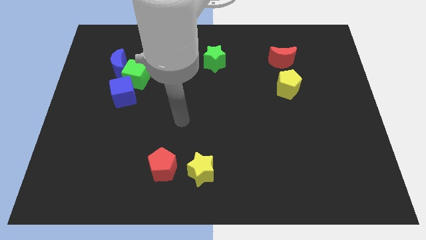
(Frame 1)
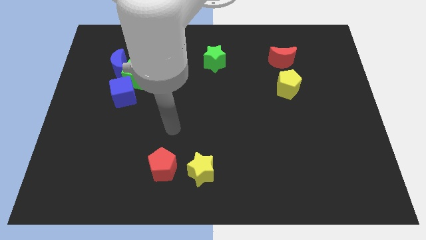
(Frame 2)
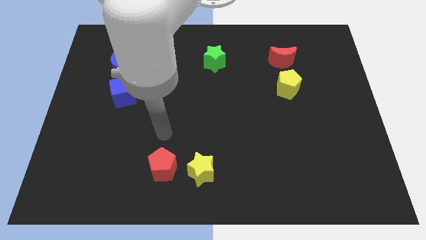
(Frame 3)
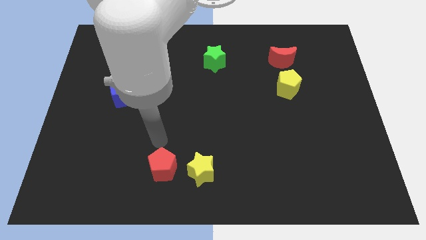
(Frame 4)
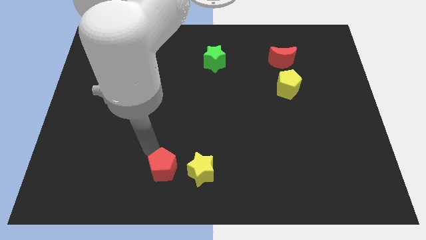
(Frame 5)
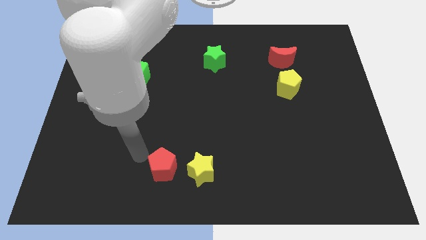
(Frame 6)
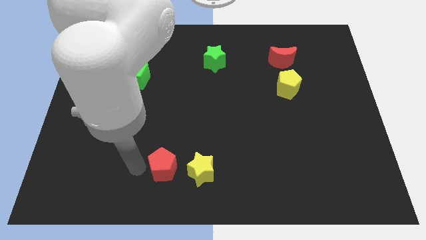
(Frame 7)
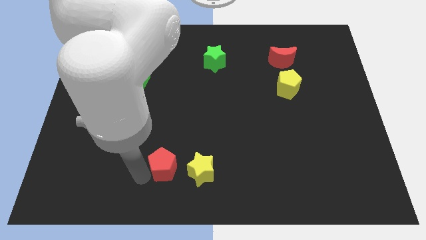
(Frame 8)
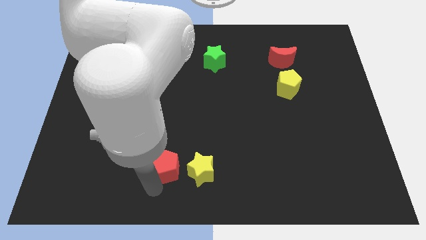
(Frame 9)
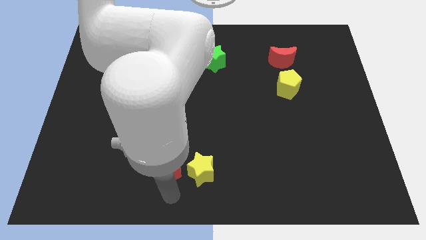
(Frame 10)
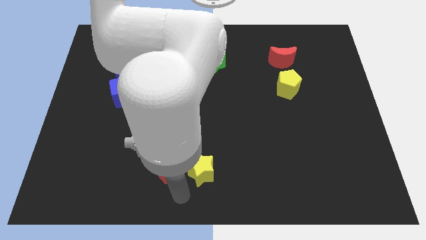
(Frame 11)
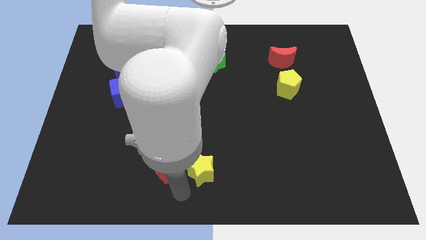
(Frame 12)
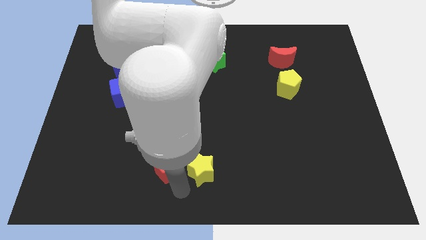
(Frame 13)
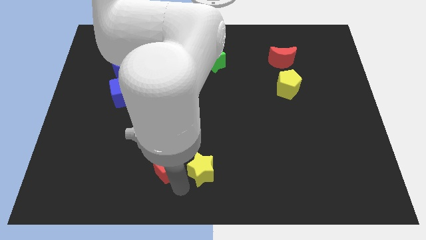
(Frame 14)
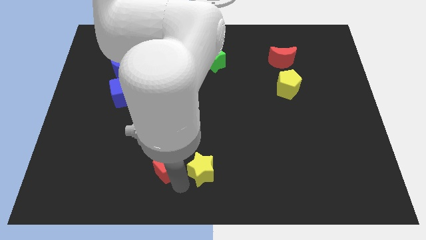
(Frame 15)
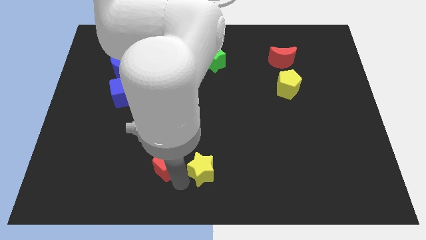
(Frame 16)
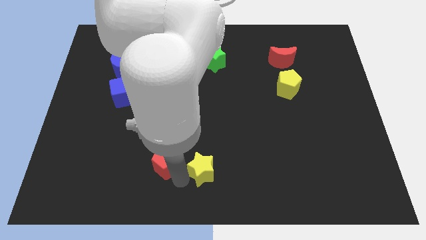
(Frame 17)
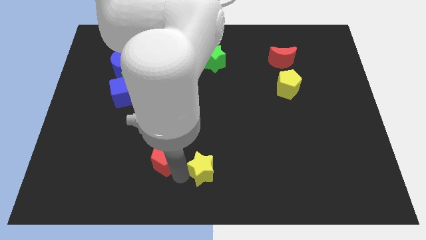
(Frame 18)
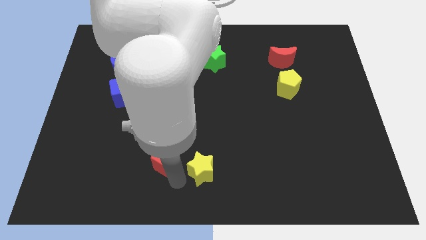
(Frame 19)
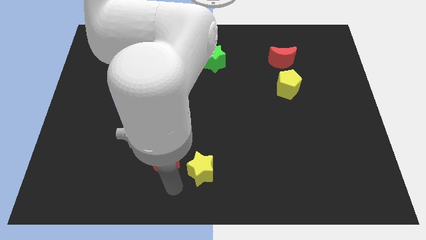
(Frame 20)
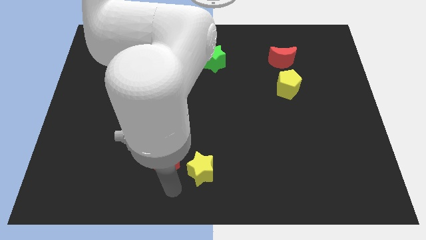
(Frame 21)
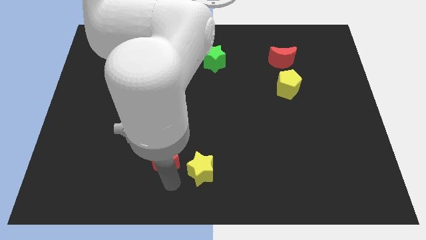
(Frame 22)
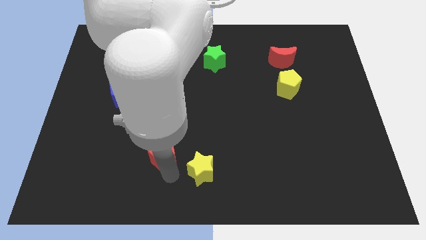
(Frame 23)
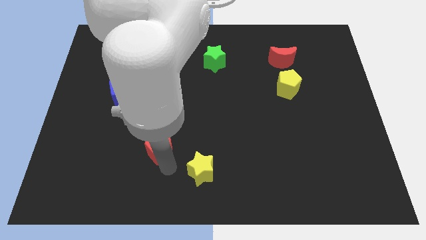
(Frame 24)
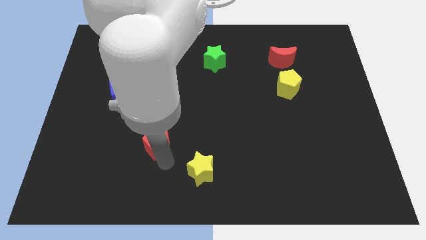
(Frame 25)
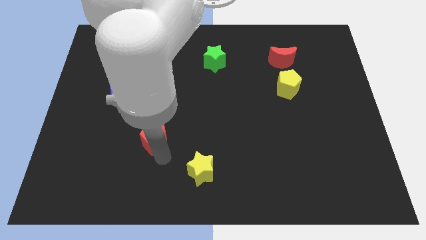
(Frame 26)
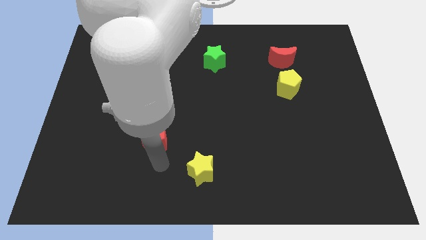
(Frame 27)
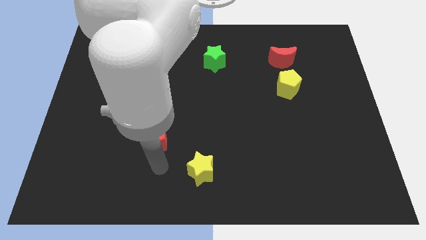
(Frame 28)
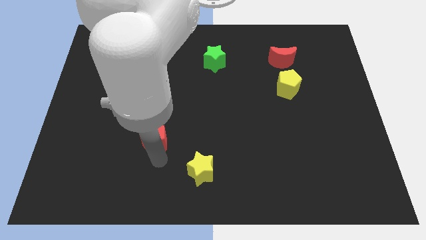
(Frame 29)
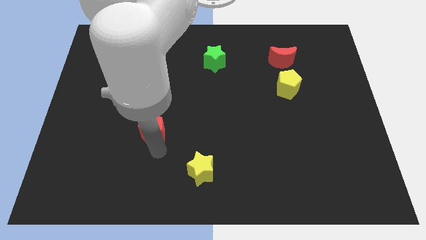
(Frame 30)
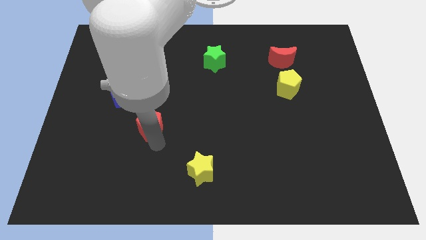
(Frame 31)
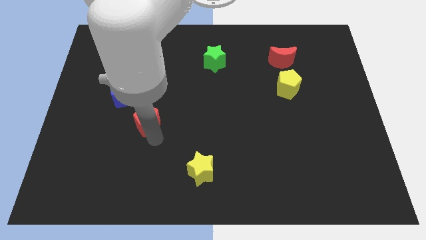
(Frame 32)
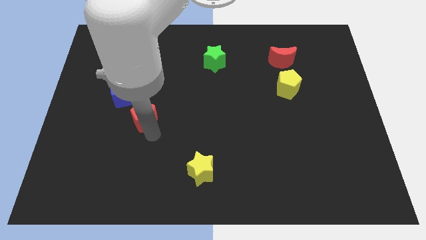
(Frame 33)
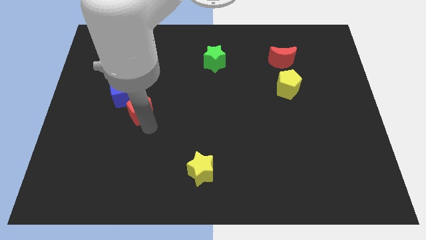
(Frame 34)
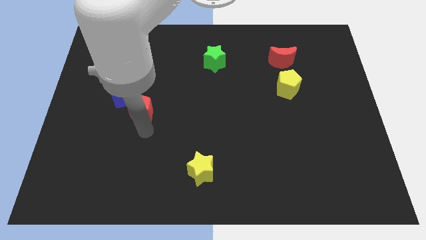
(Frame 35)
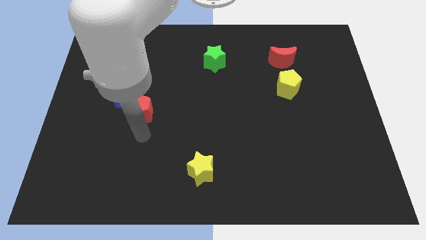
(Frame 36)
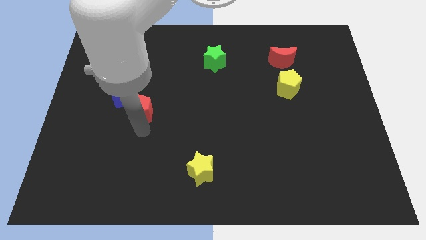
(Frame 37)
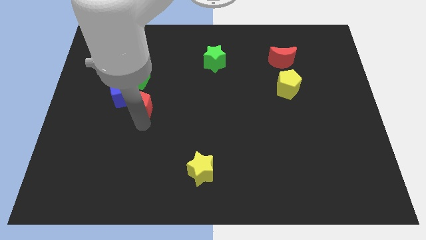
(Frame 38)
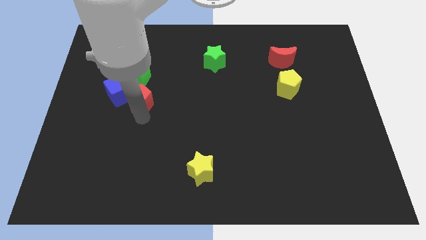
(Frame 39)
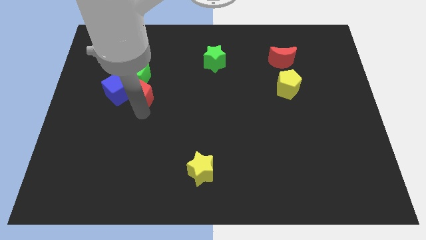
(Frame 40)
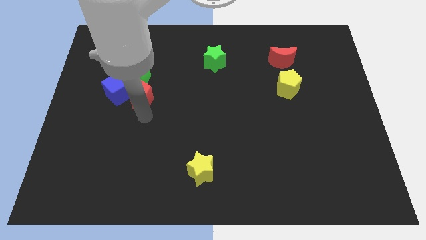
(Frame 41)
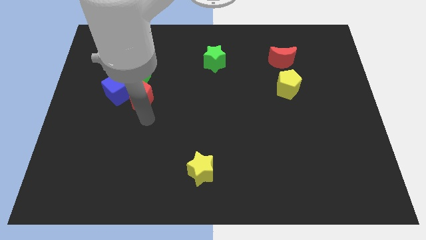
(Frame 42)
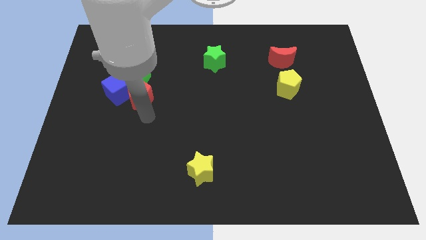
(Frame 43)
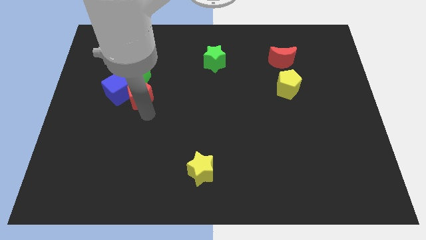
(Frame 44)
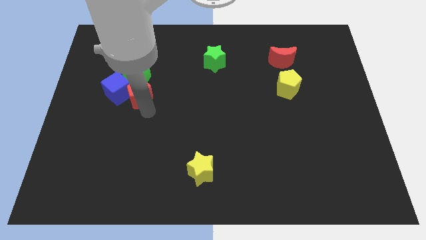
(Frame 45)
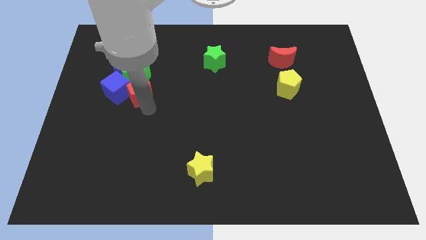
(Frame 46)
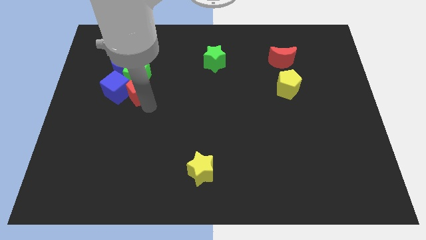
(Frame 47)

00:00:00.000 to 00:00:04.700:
put the red pentagon to the green cube

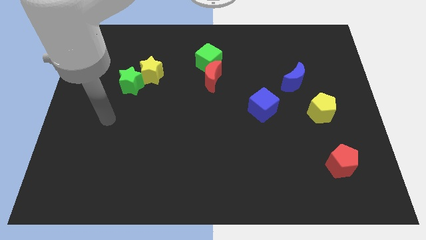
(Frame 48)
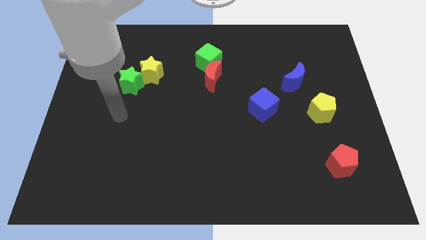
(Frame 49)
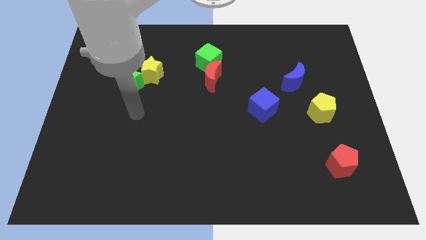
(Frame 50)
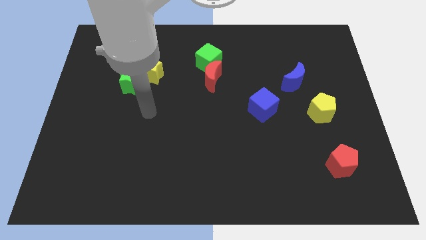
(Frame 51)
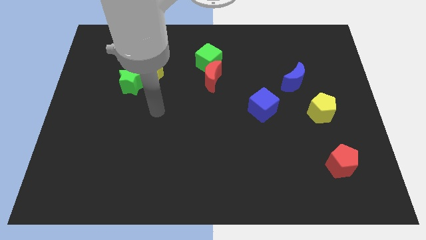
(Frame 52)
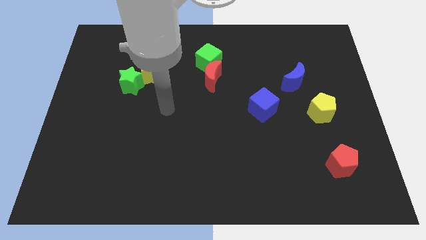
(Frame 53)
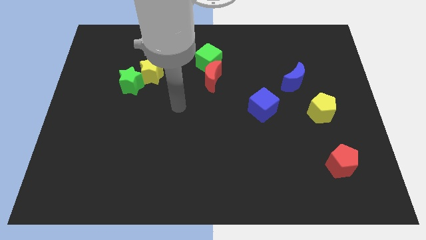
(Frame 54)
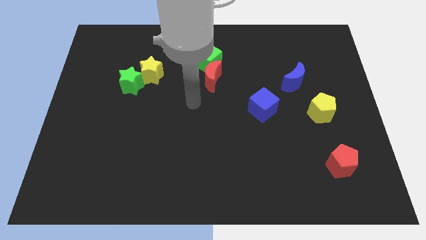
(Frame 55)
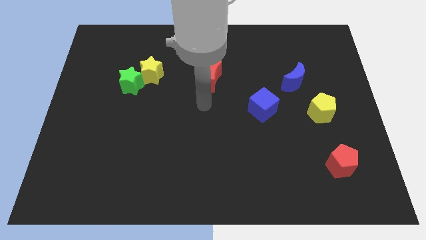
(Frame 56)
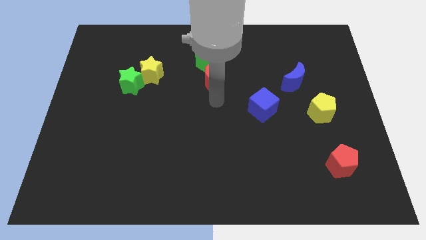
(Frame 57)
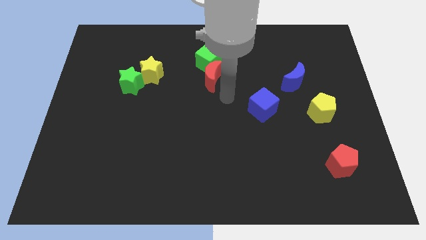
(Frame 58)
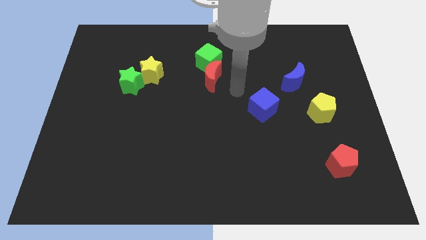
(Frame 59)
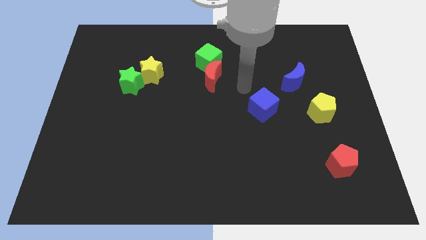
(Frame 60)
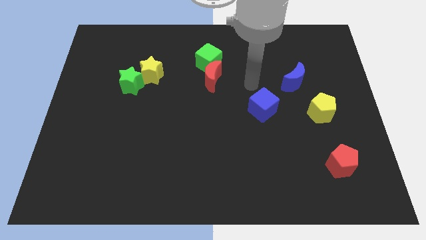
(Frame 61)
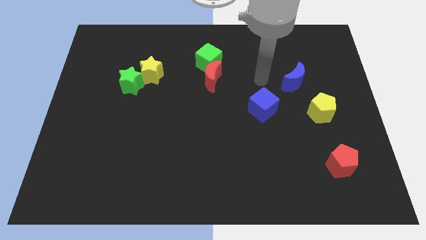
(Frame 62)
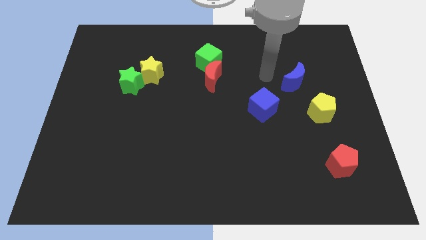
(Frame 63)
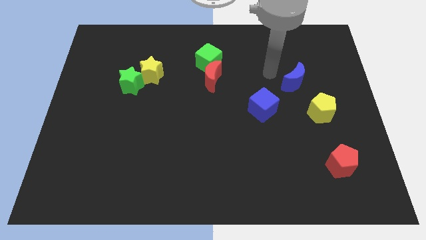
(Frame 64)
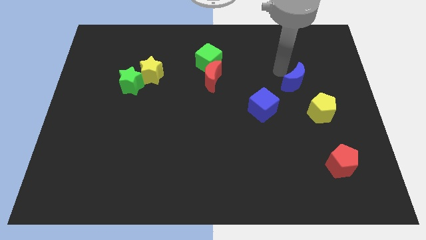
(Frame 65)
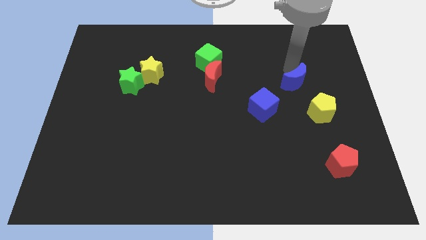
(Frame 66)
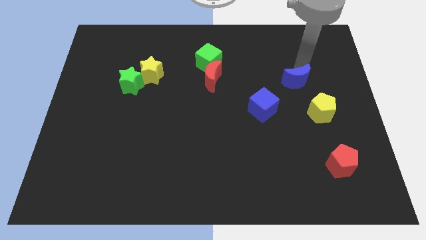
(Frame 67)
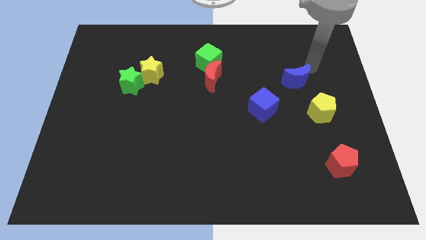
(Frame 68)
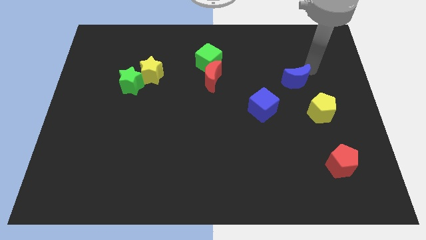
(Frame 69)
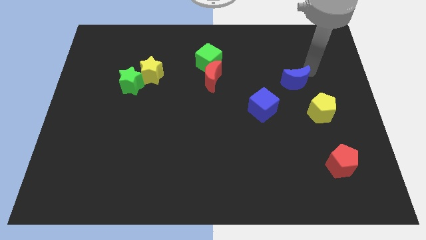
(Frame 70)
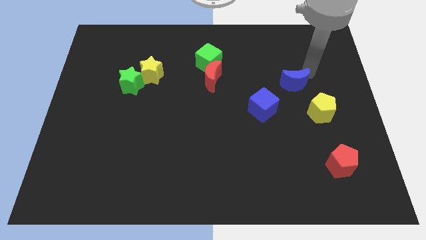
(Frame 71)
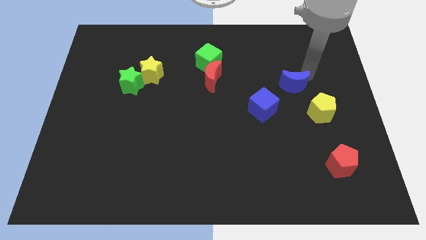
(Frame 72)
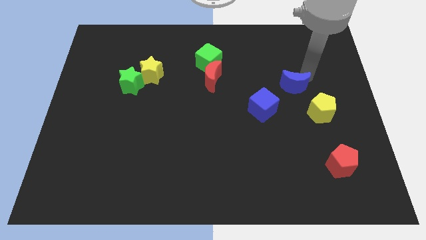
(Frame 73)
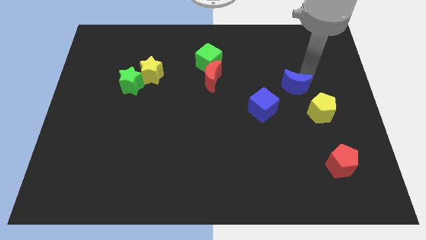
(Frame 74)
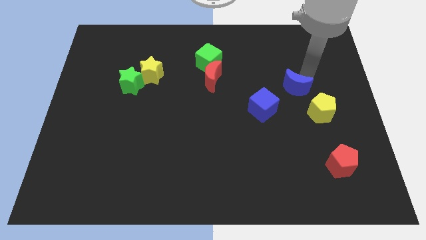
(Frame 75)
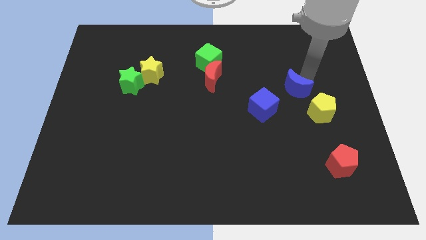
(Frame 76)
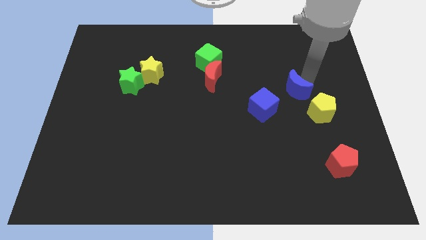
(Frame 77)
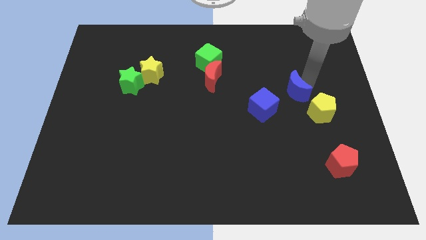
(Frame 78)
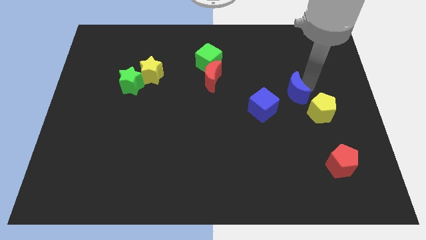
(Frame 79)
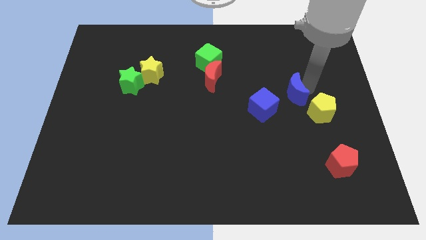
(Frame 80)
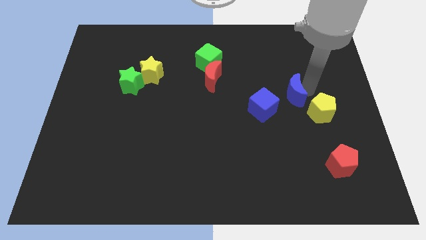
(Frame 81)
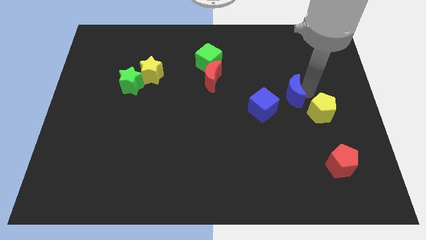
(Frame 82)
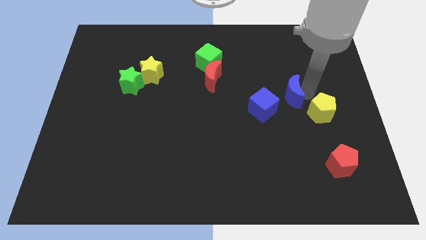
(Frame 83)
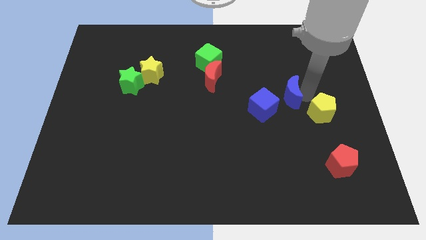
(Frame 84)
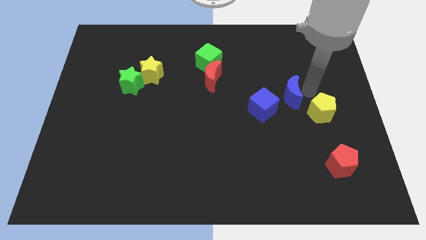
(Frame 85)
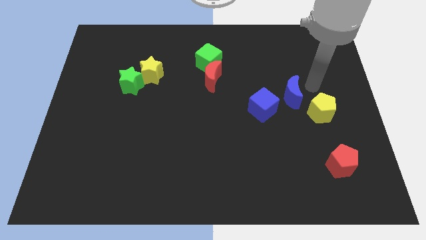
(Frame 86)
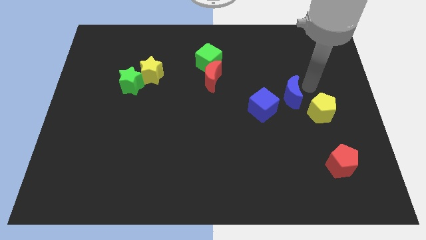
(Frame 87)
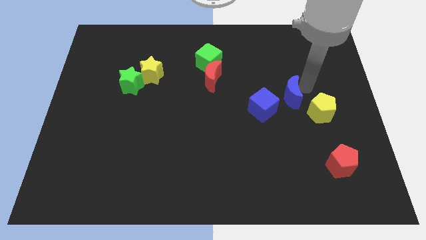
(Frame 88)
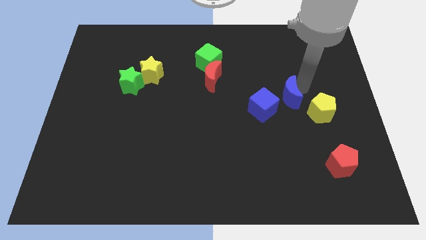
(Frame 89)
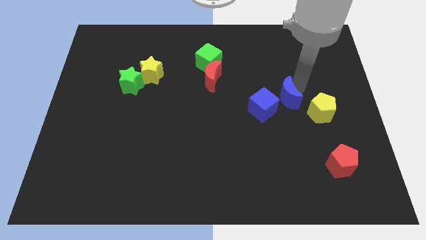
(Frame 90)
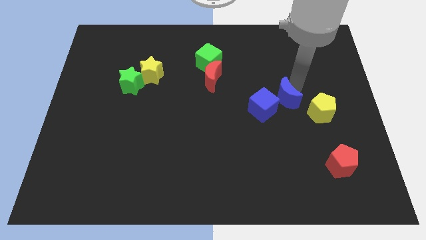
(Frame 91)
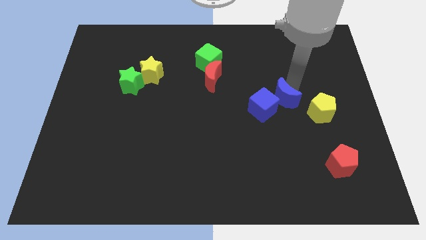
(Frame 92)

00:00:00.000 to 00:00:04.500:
move the blue moon towards the blue cube
